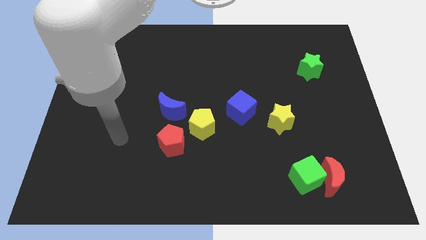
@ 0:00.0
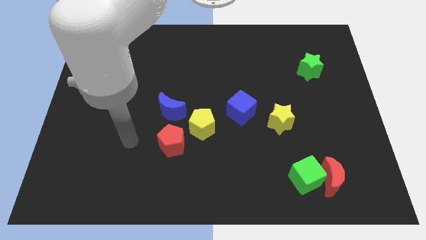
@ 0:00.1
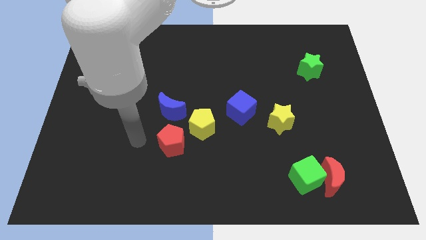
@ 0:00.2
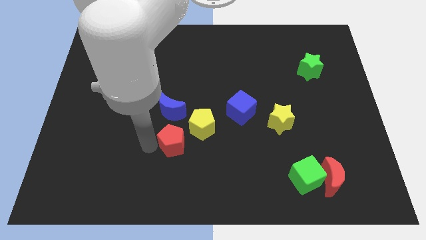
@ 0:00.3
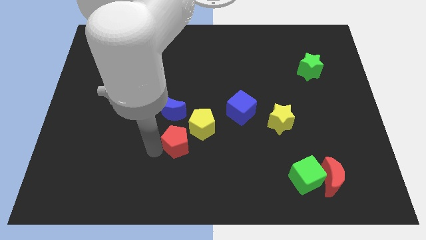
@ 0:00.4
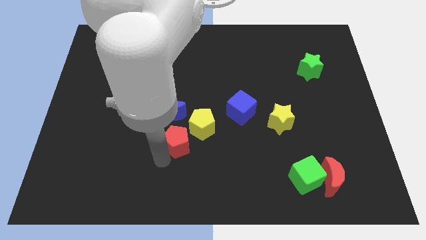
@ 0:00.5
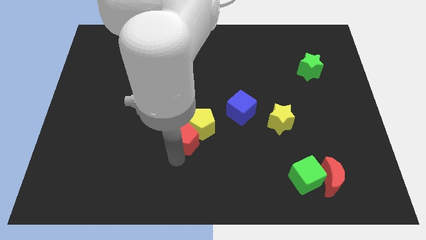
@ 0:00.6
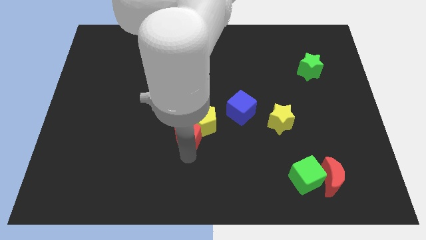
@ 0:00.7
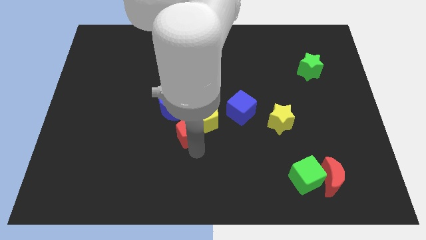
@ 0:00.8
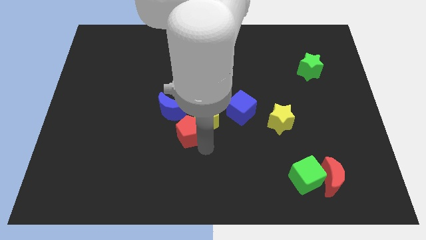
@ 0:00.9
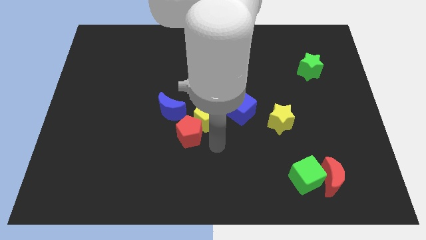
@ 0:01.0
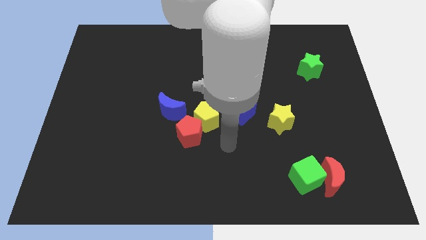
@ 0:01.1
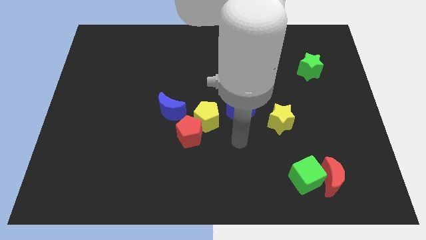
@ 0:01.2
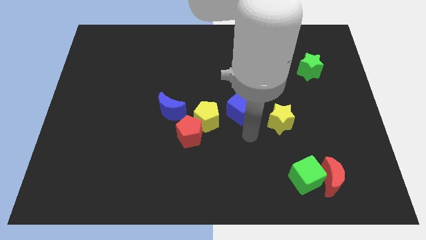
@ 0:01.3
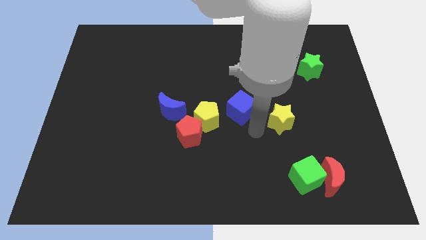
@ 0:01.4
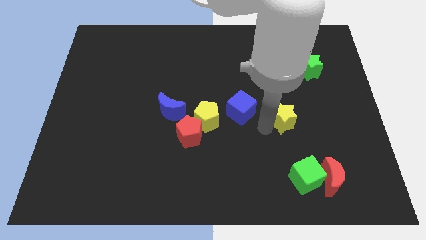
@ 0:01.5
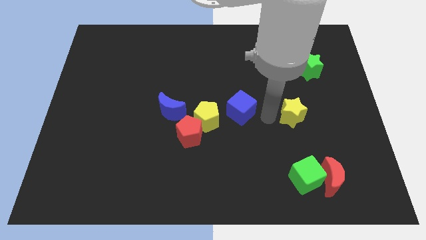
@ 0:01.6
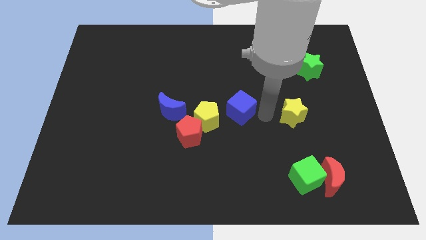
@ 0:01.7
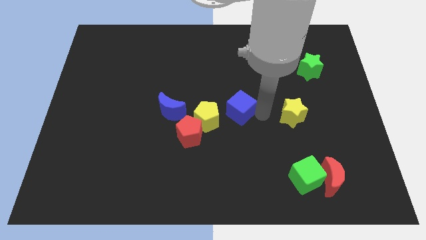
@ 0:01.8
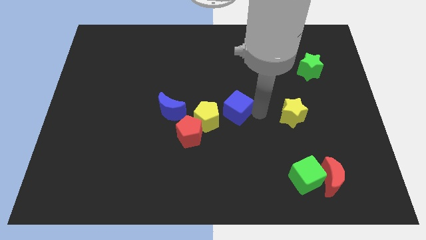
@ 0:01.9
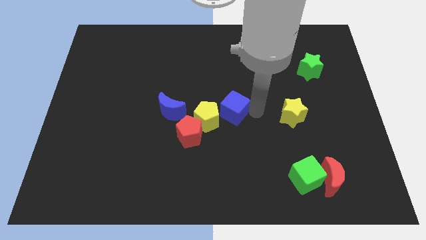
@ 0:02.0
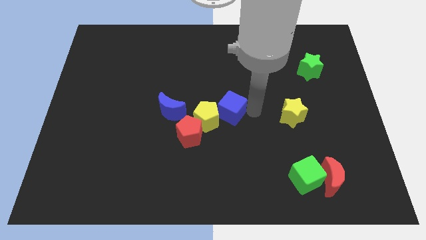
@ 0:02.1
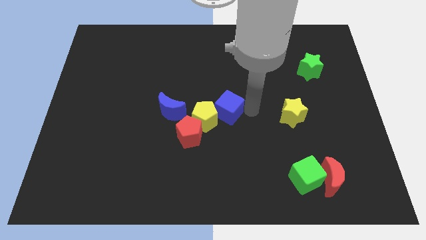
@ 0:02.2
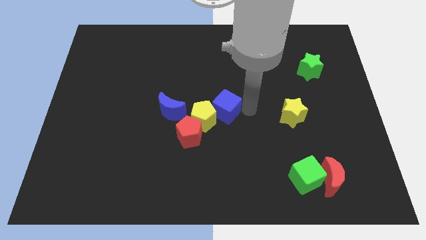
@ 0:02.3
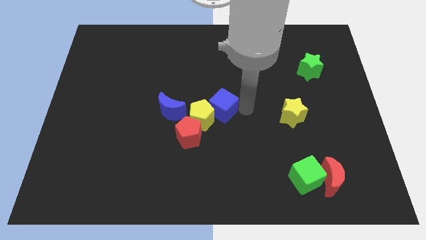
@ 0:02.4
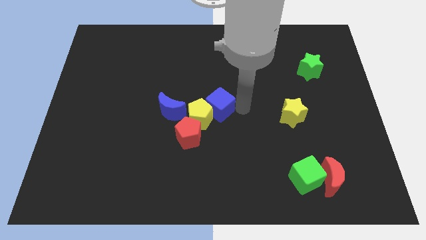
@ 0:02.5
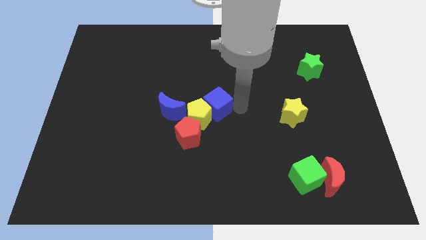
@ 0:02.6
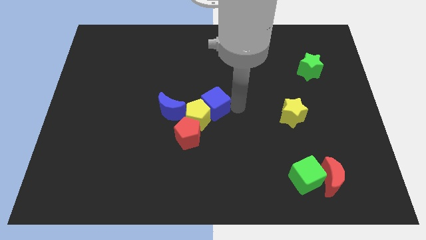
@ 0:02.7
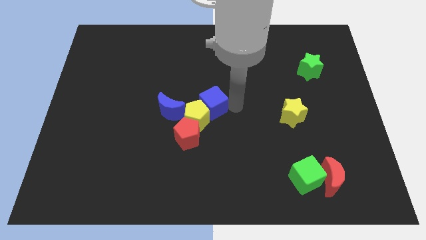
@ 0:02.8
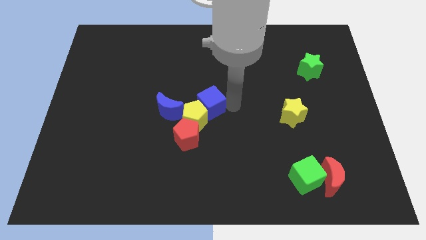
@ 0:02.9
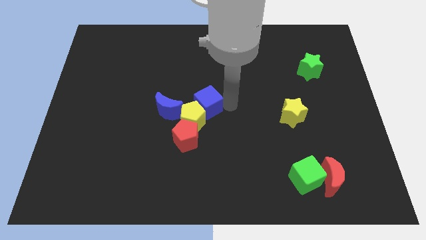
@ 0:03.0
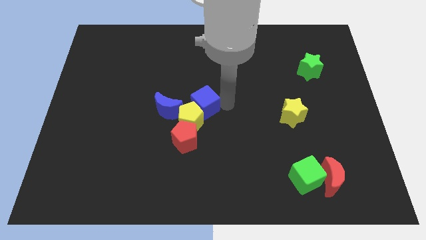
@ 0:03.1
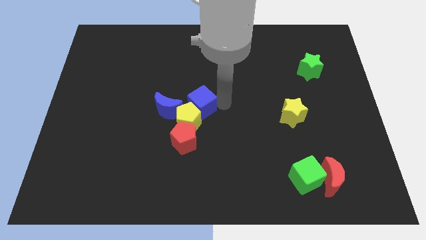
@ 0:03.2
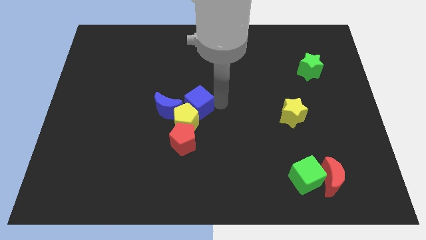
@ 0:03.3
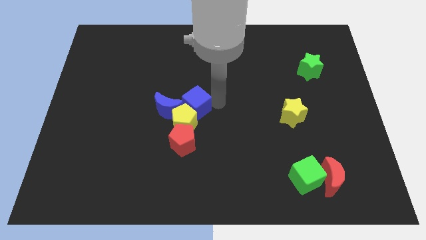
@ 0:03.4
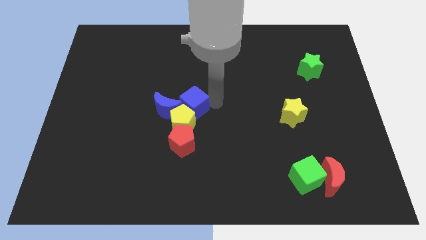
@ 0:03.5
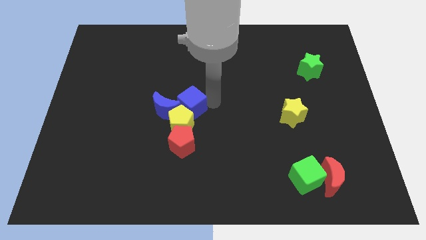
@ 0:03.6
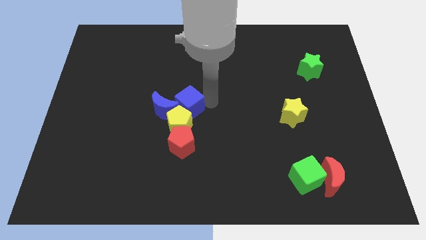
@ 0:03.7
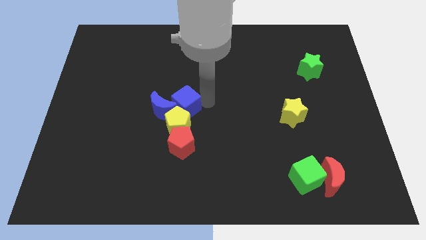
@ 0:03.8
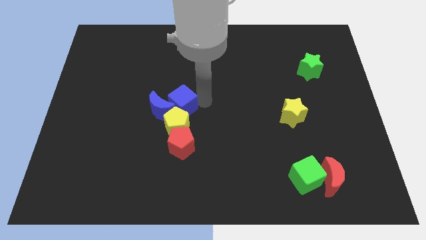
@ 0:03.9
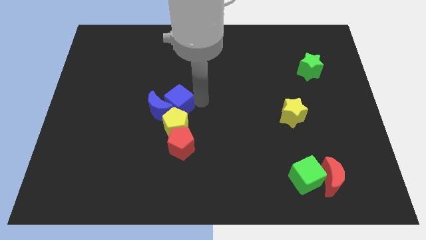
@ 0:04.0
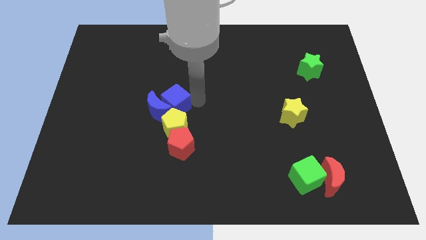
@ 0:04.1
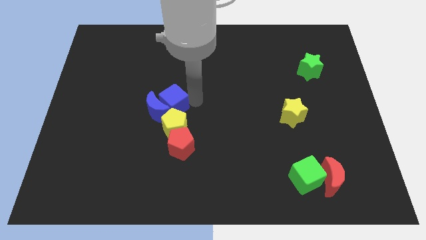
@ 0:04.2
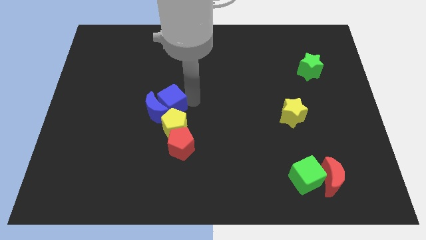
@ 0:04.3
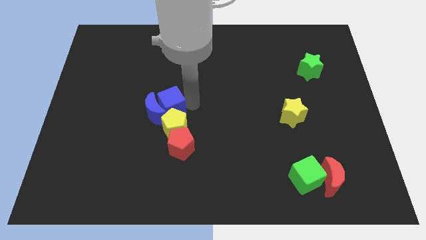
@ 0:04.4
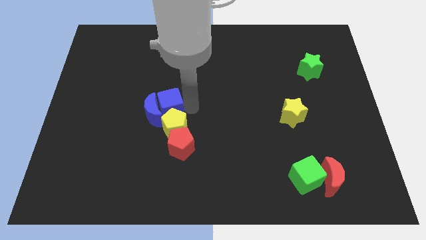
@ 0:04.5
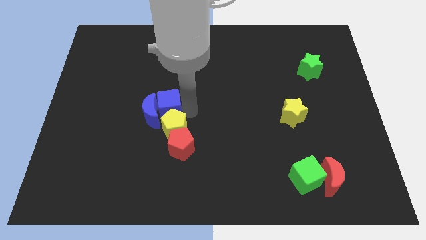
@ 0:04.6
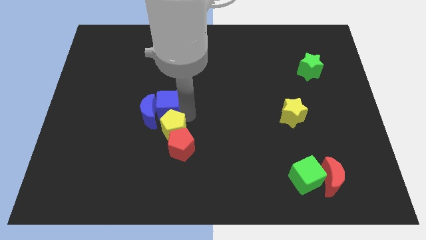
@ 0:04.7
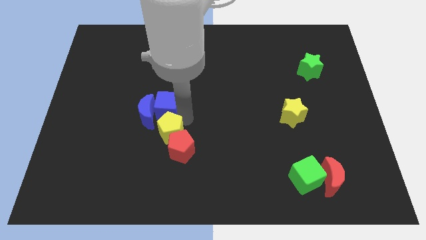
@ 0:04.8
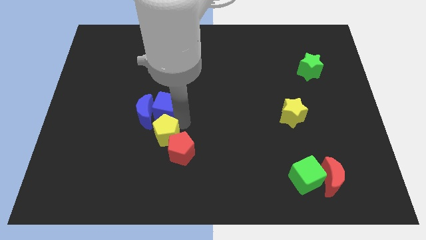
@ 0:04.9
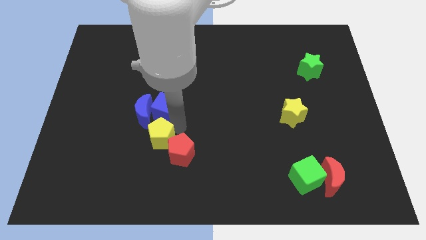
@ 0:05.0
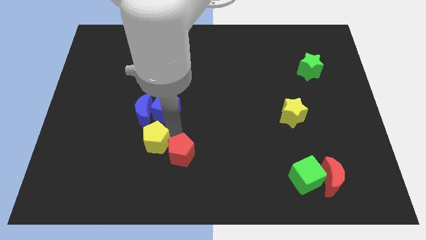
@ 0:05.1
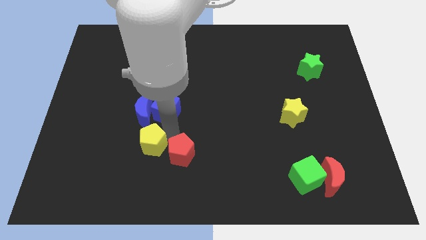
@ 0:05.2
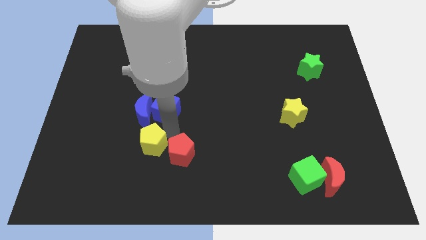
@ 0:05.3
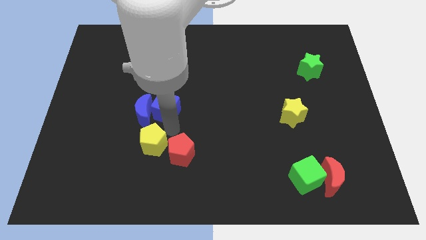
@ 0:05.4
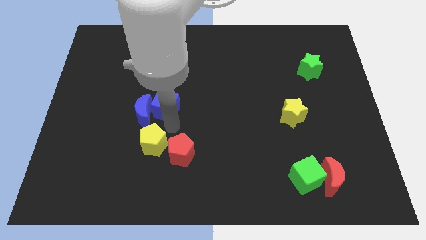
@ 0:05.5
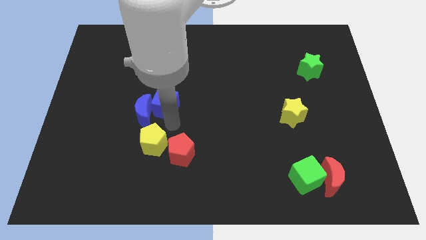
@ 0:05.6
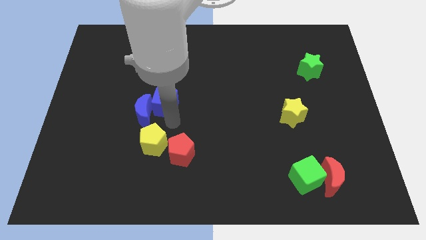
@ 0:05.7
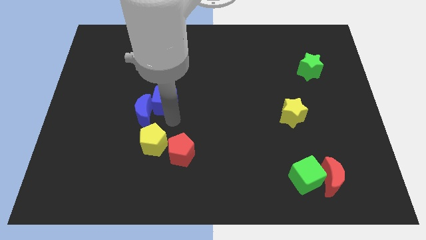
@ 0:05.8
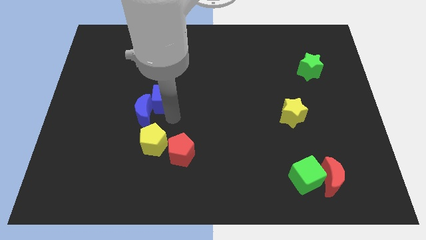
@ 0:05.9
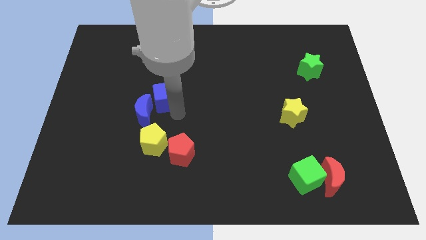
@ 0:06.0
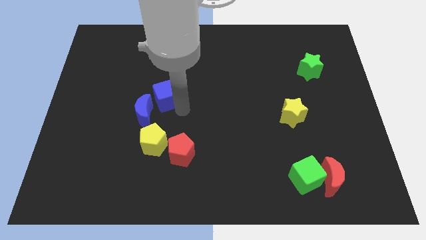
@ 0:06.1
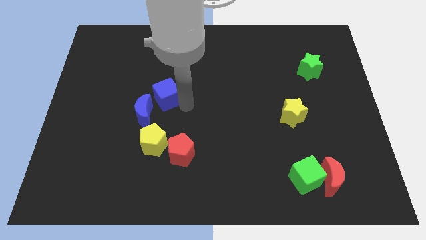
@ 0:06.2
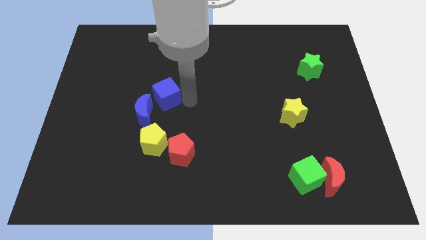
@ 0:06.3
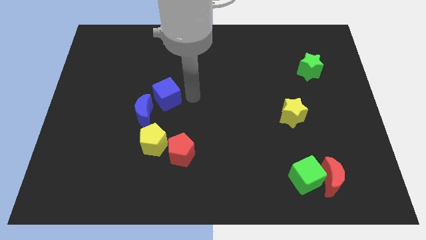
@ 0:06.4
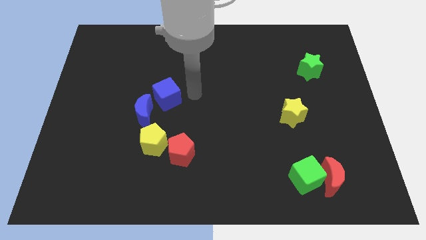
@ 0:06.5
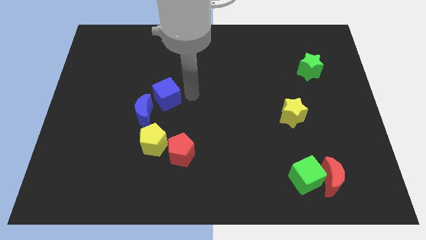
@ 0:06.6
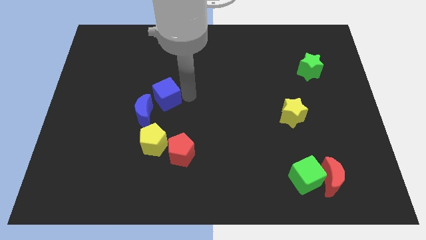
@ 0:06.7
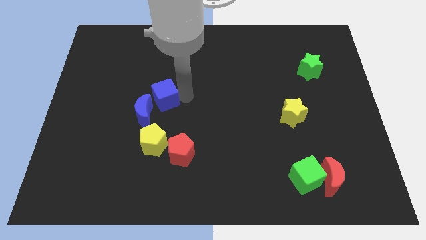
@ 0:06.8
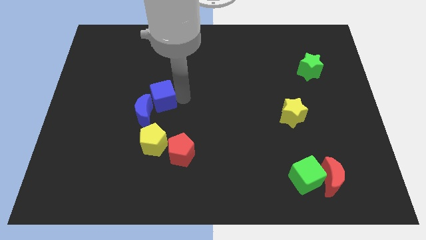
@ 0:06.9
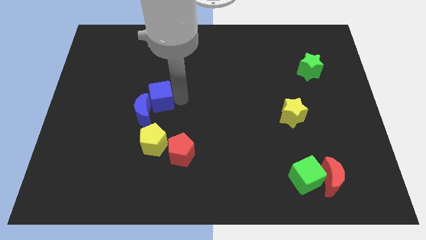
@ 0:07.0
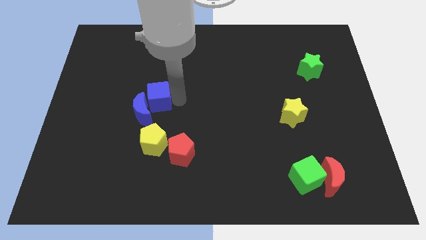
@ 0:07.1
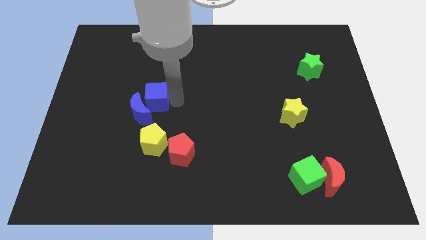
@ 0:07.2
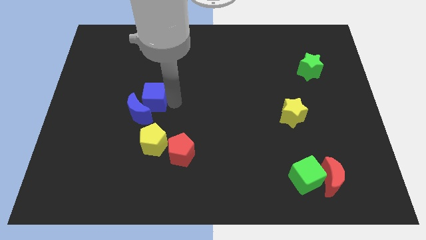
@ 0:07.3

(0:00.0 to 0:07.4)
move the blue cube left

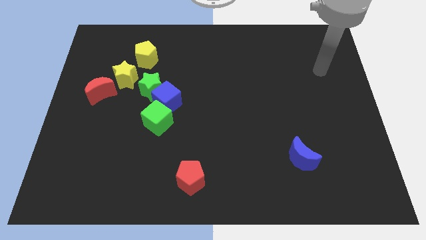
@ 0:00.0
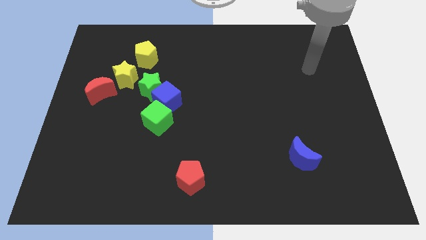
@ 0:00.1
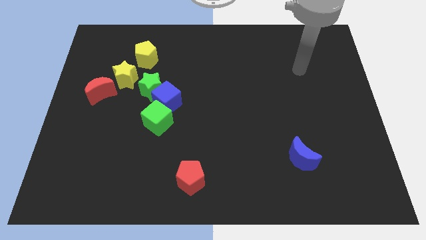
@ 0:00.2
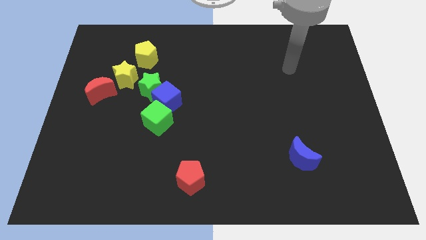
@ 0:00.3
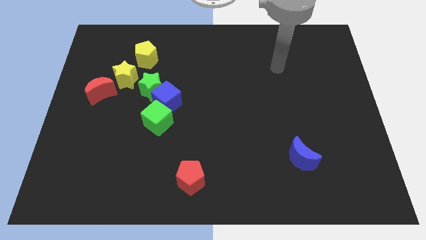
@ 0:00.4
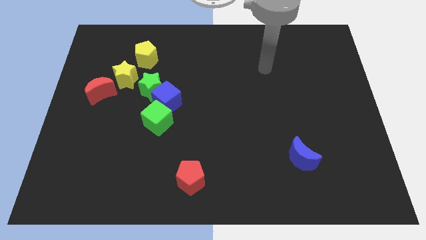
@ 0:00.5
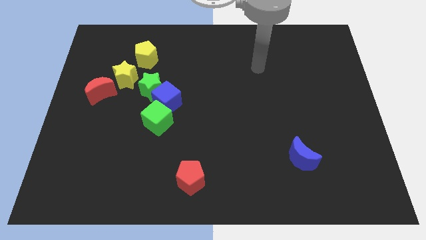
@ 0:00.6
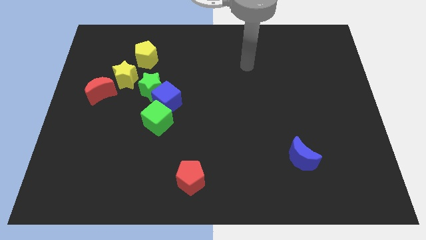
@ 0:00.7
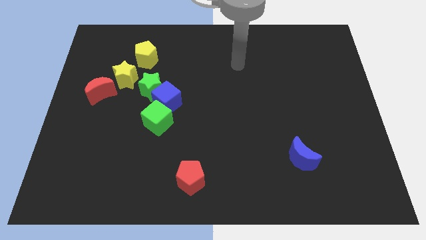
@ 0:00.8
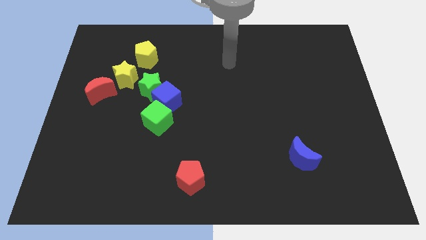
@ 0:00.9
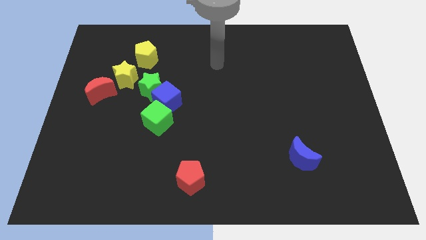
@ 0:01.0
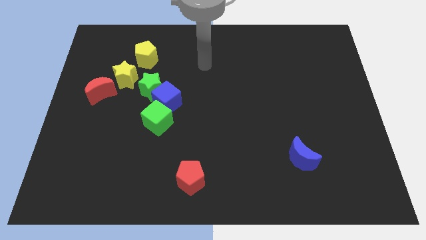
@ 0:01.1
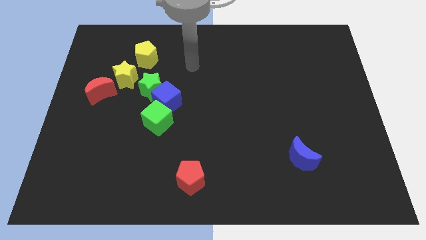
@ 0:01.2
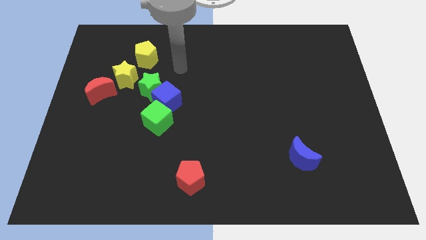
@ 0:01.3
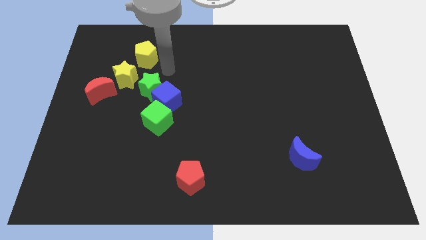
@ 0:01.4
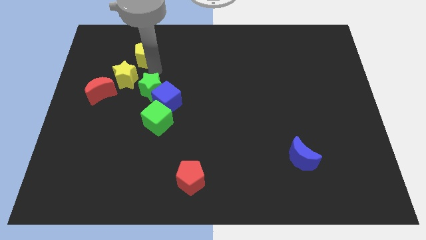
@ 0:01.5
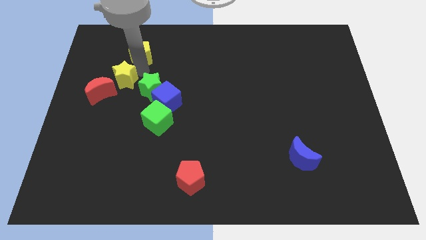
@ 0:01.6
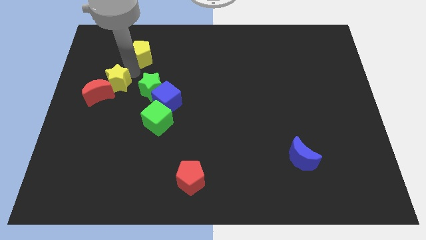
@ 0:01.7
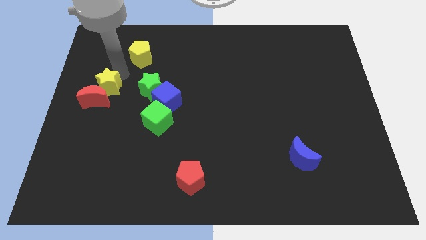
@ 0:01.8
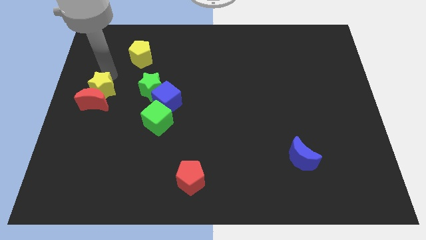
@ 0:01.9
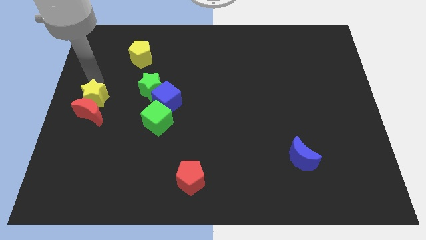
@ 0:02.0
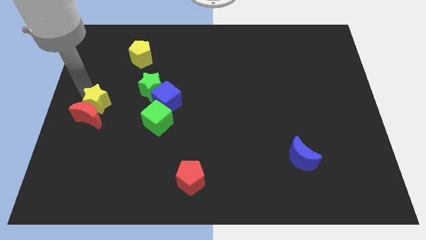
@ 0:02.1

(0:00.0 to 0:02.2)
push the red moon a little bit down
